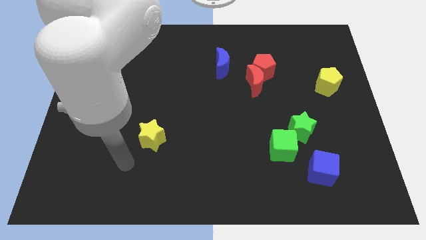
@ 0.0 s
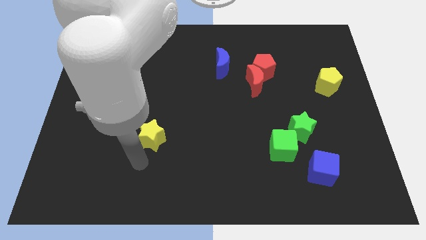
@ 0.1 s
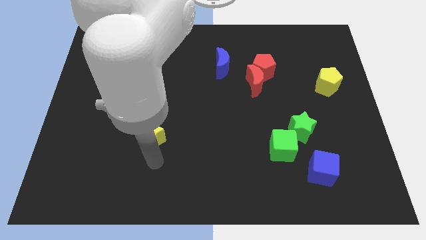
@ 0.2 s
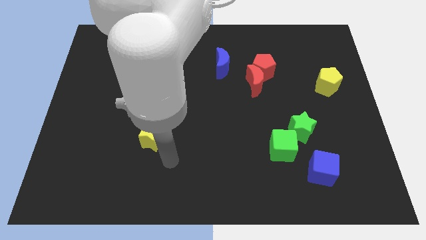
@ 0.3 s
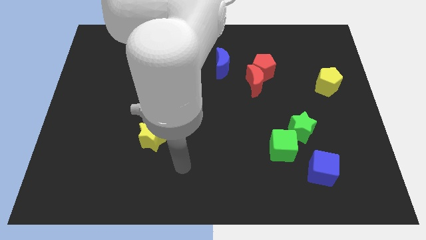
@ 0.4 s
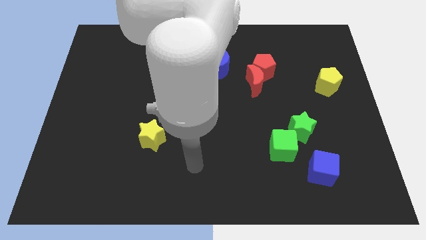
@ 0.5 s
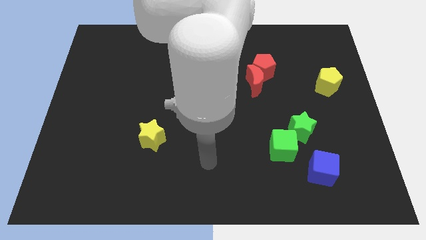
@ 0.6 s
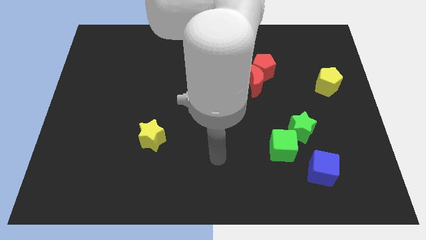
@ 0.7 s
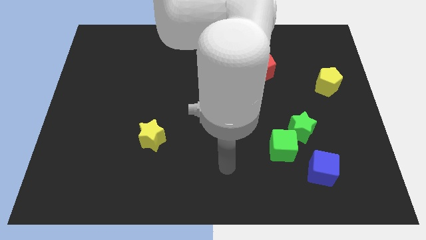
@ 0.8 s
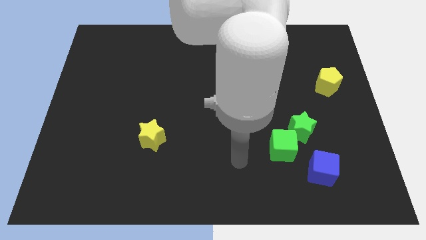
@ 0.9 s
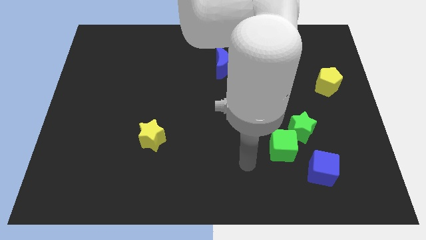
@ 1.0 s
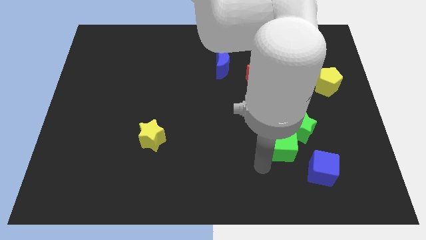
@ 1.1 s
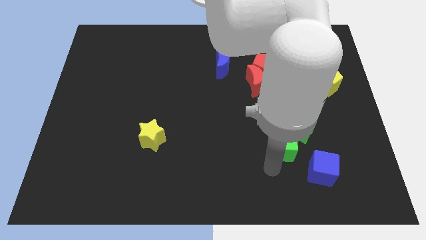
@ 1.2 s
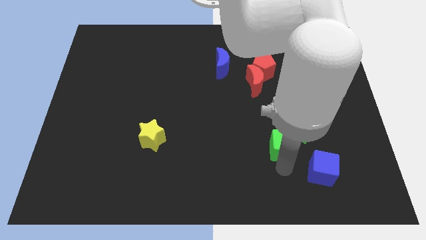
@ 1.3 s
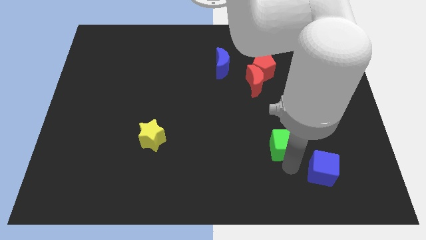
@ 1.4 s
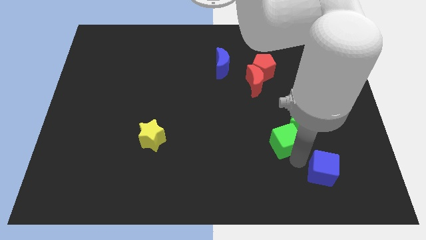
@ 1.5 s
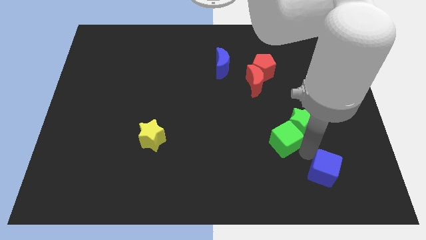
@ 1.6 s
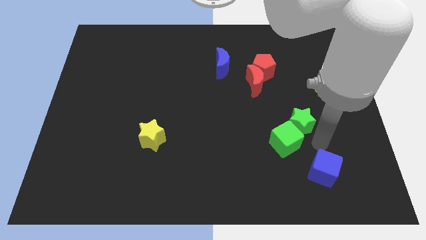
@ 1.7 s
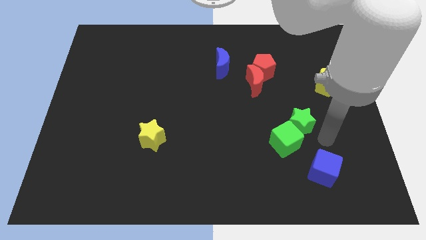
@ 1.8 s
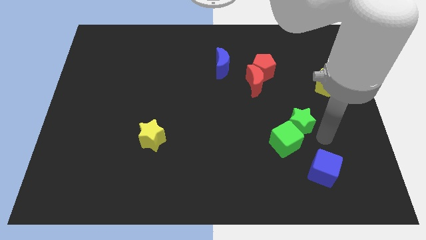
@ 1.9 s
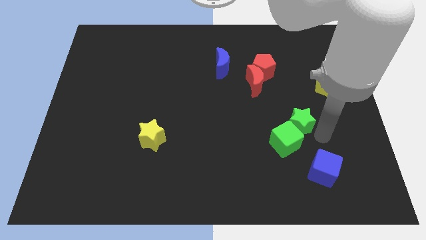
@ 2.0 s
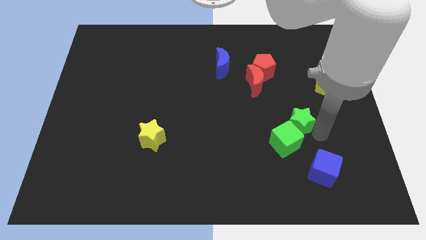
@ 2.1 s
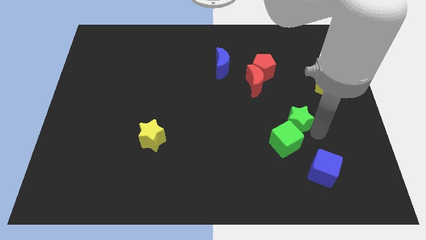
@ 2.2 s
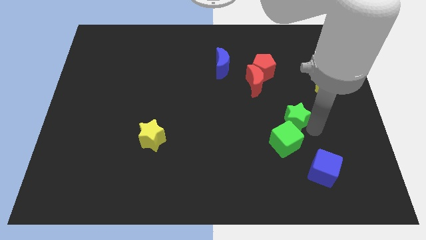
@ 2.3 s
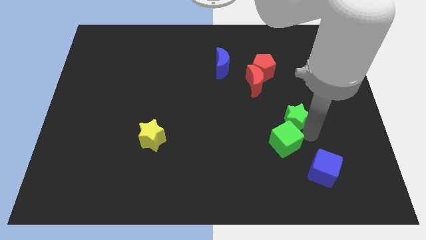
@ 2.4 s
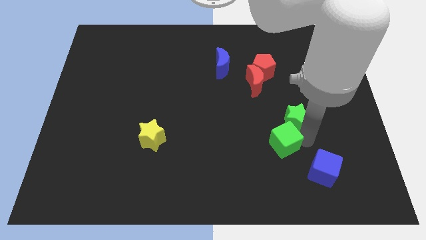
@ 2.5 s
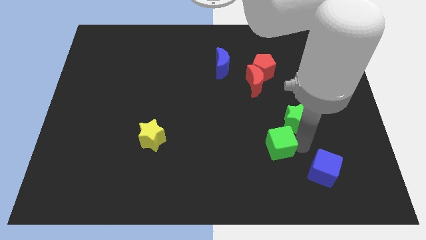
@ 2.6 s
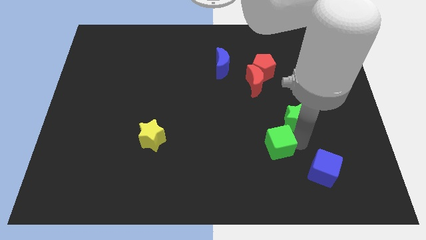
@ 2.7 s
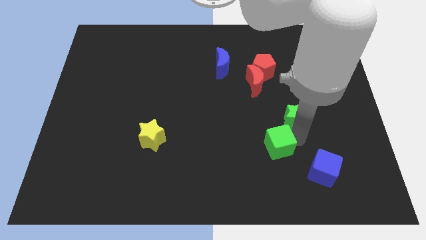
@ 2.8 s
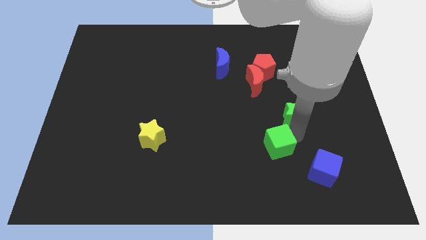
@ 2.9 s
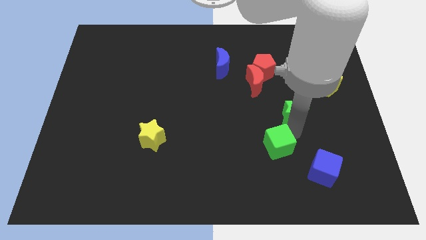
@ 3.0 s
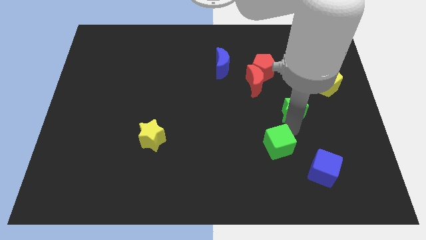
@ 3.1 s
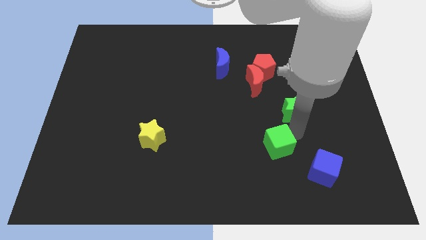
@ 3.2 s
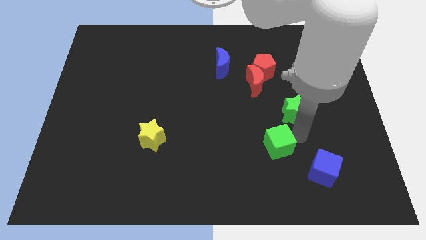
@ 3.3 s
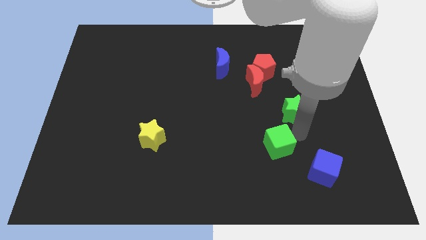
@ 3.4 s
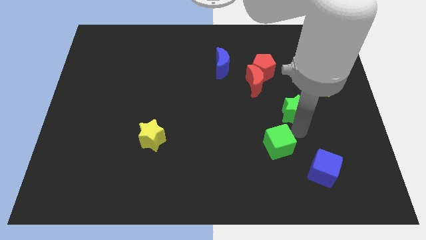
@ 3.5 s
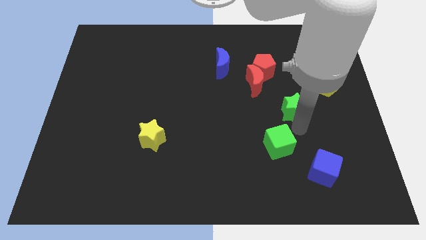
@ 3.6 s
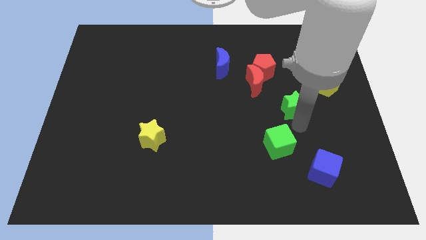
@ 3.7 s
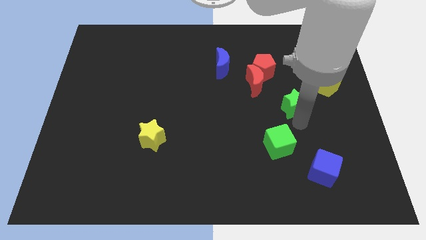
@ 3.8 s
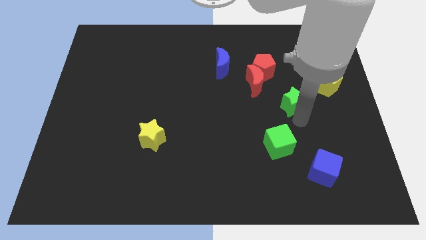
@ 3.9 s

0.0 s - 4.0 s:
slightly move the green star up

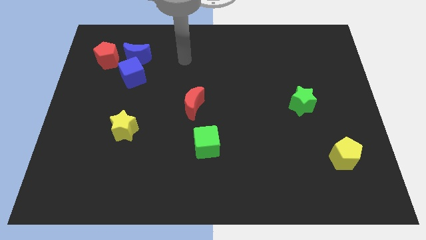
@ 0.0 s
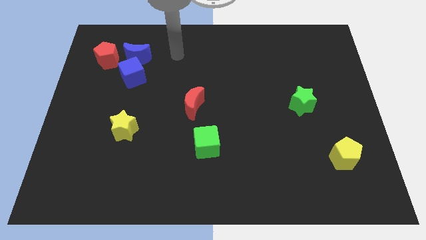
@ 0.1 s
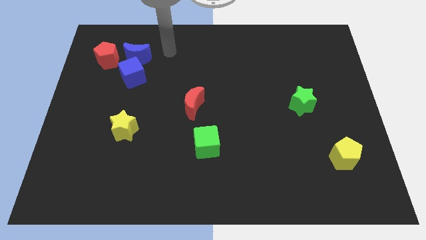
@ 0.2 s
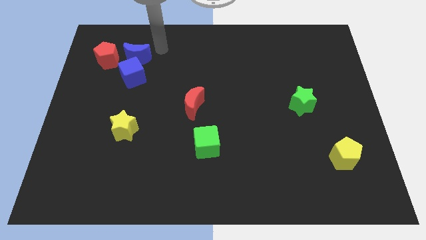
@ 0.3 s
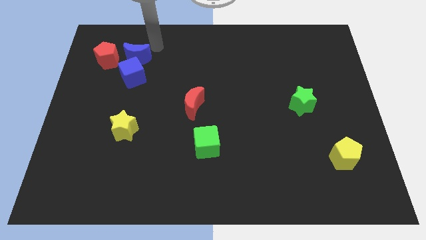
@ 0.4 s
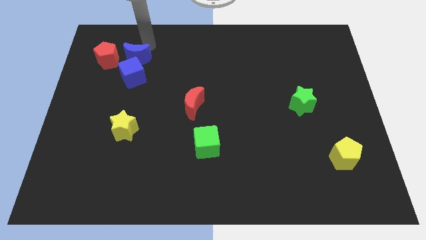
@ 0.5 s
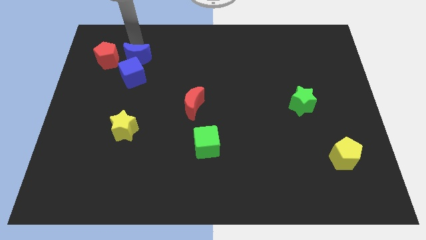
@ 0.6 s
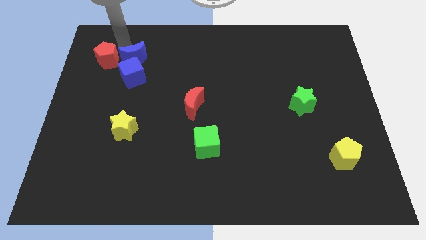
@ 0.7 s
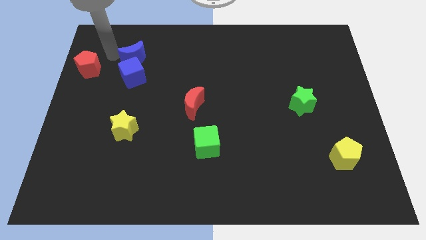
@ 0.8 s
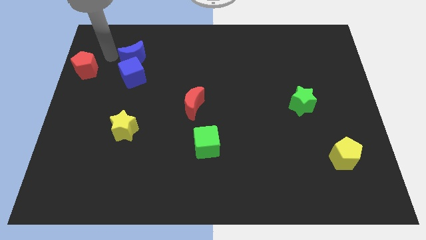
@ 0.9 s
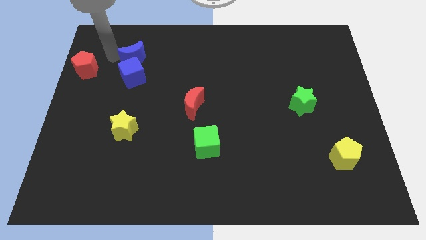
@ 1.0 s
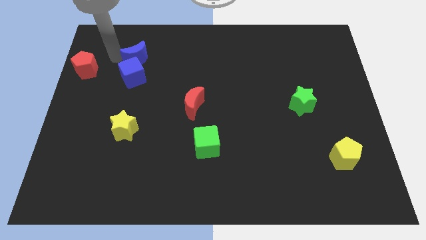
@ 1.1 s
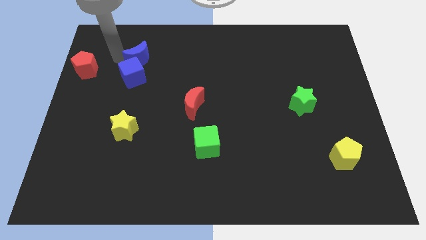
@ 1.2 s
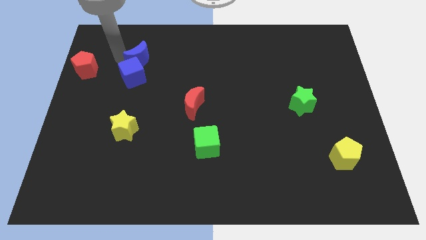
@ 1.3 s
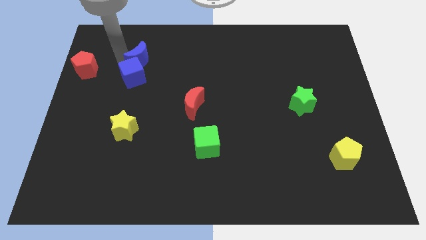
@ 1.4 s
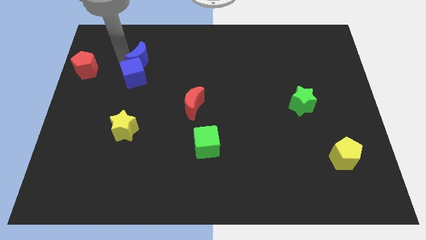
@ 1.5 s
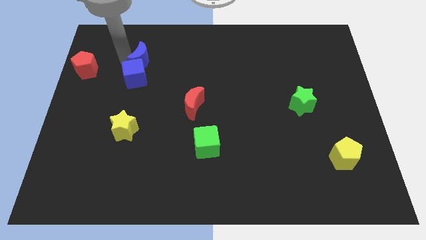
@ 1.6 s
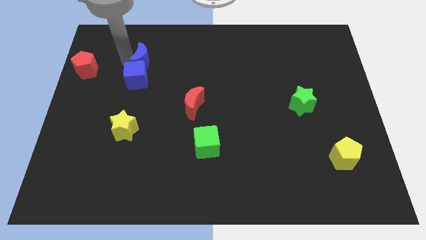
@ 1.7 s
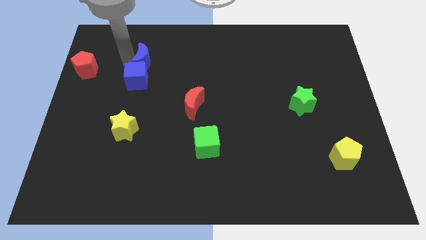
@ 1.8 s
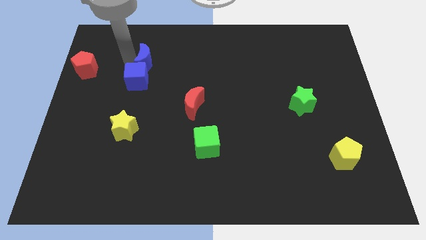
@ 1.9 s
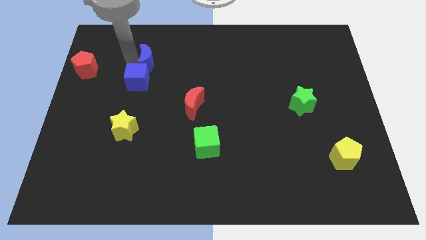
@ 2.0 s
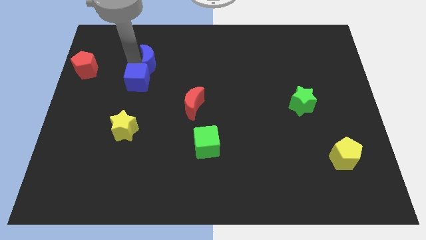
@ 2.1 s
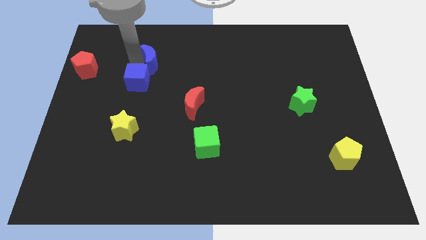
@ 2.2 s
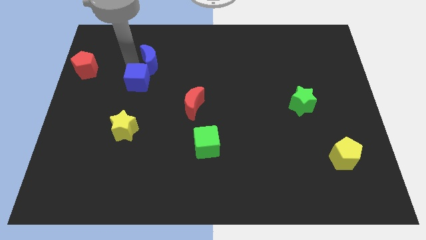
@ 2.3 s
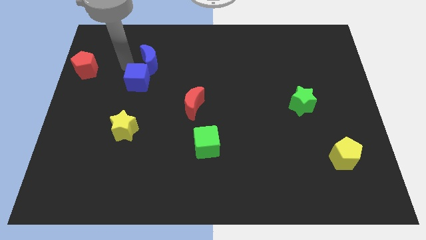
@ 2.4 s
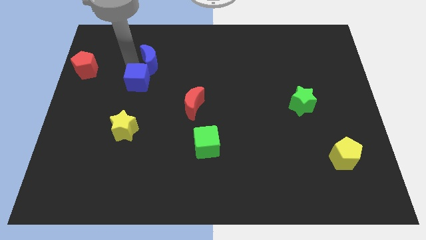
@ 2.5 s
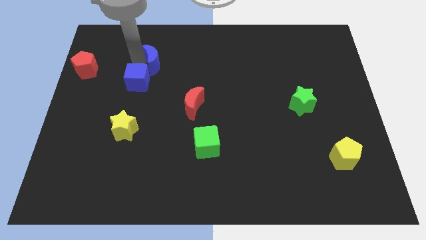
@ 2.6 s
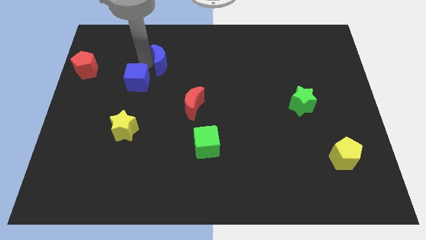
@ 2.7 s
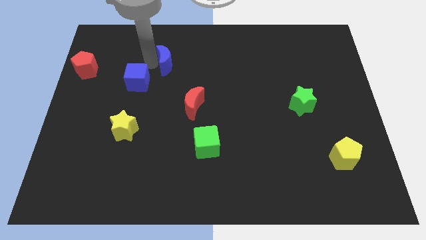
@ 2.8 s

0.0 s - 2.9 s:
slide the blue moon somewhat to the right

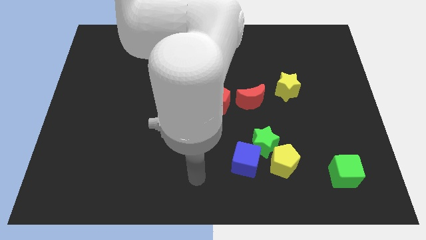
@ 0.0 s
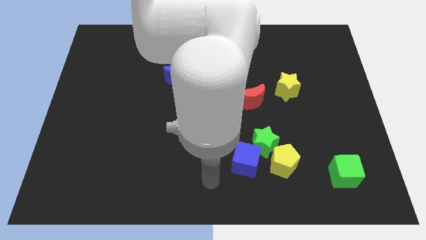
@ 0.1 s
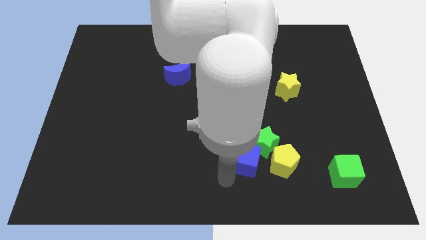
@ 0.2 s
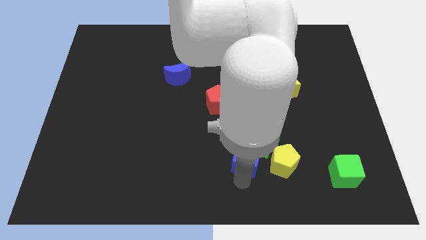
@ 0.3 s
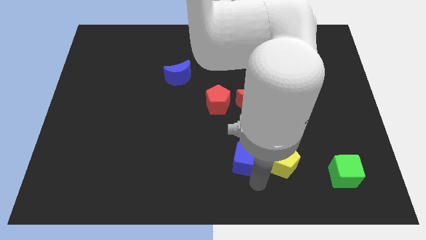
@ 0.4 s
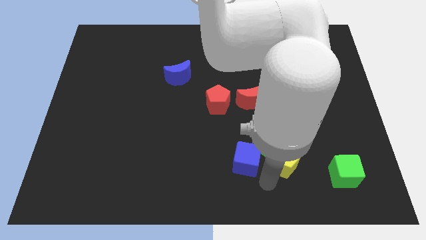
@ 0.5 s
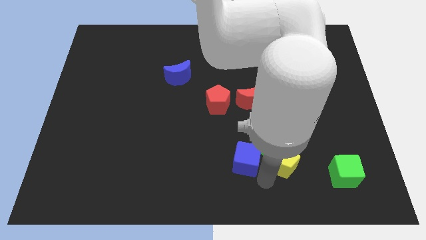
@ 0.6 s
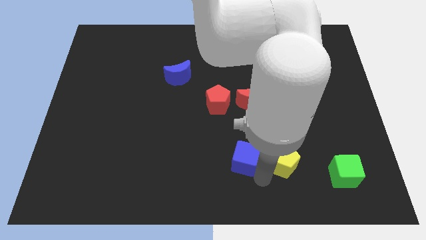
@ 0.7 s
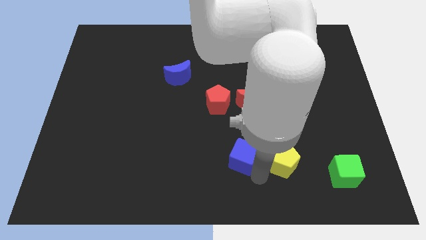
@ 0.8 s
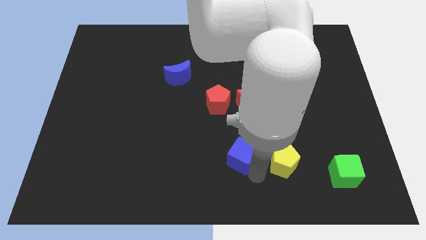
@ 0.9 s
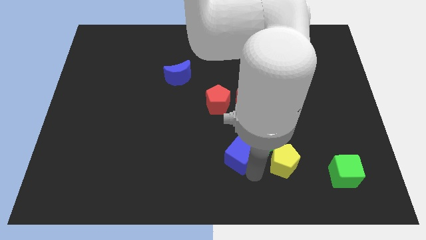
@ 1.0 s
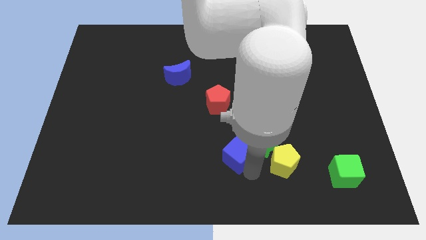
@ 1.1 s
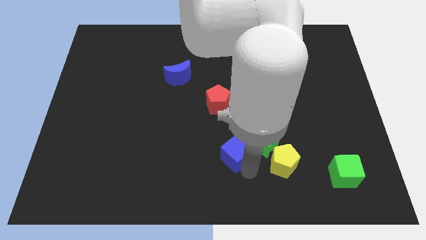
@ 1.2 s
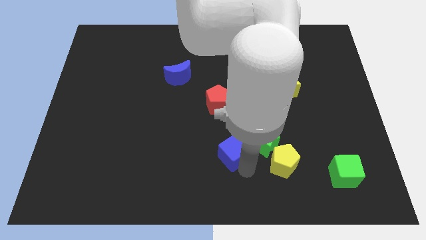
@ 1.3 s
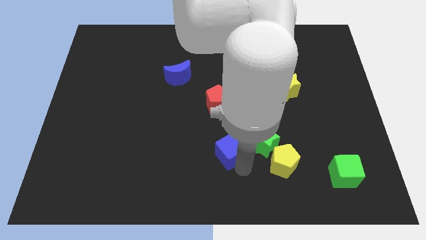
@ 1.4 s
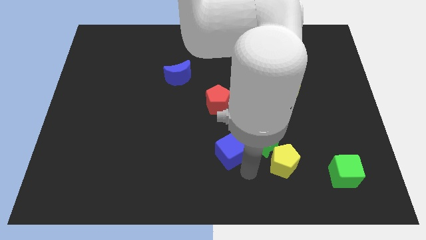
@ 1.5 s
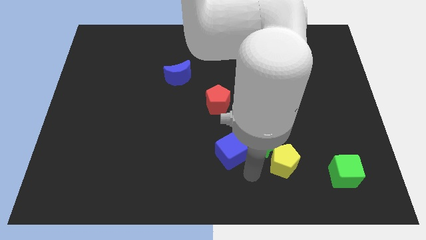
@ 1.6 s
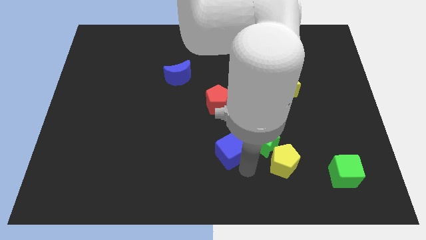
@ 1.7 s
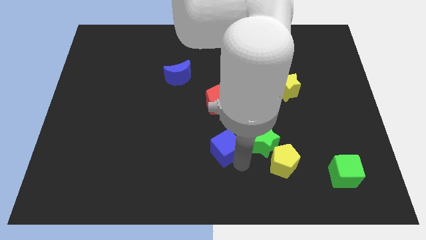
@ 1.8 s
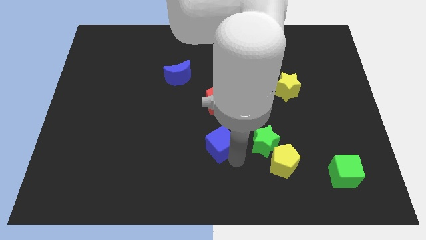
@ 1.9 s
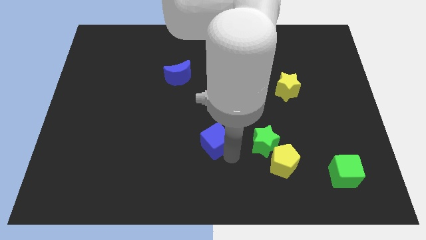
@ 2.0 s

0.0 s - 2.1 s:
move the blue cube a little upwards and left diagonally
